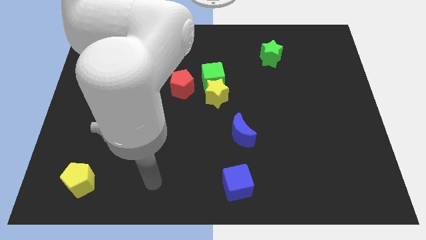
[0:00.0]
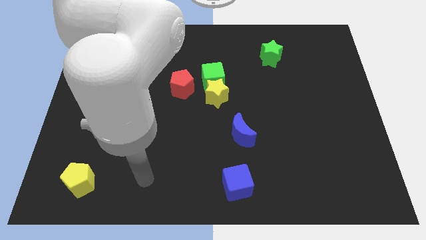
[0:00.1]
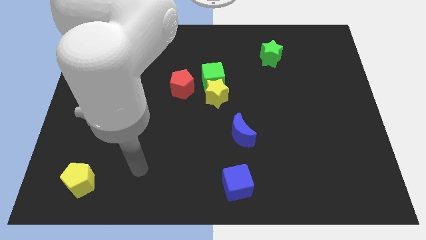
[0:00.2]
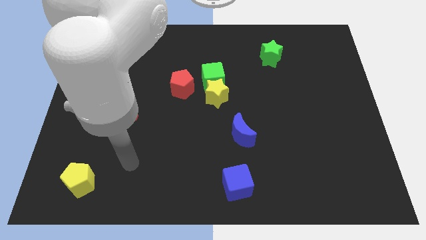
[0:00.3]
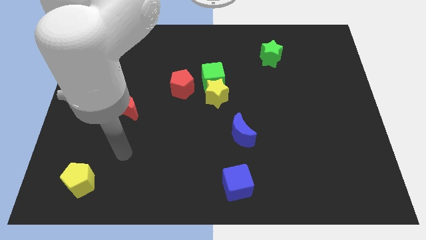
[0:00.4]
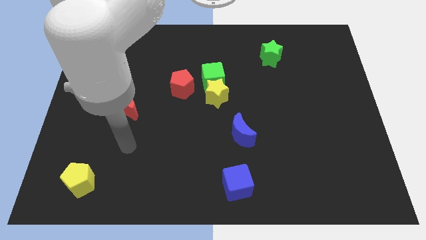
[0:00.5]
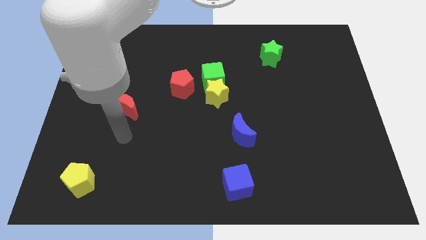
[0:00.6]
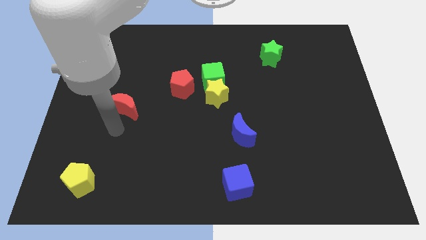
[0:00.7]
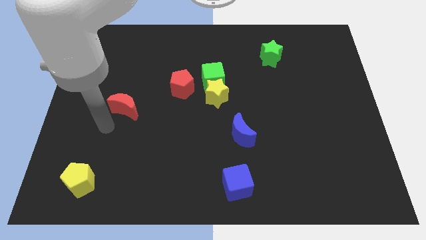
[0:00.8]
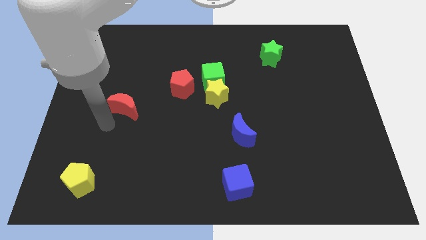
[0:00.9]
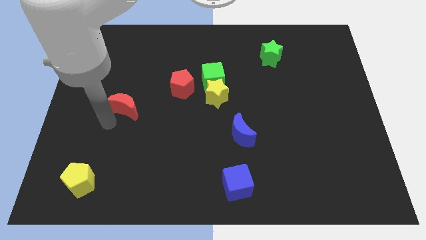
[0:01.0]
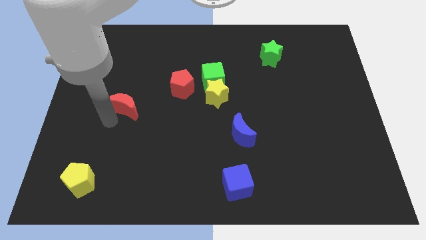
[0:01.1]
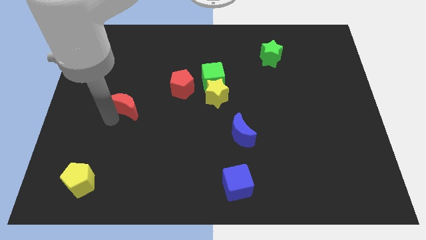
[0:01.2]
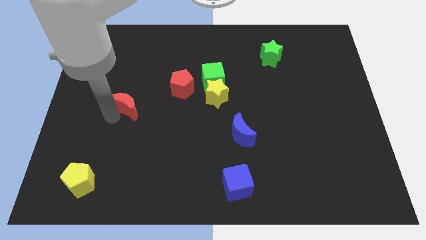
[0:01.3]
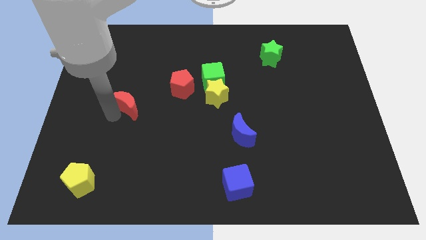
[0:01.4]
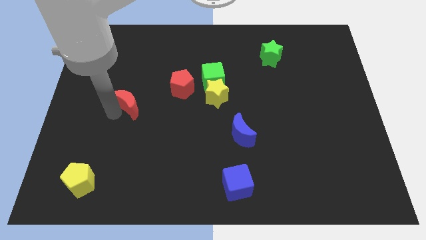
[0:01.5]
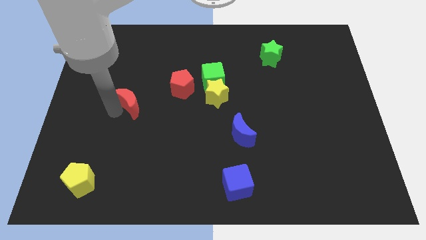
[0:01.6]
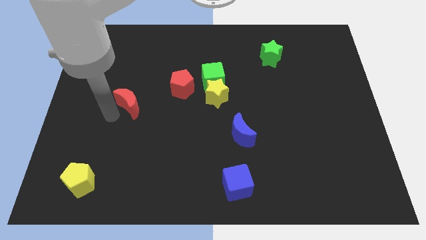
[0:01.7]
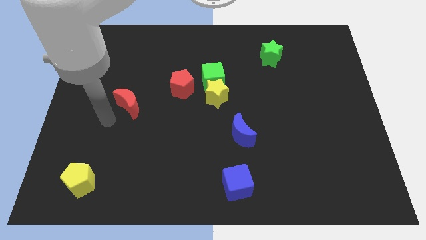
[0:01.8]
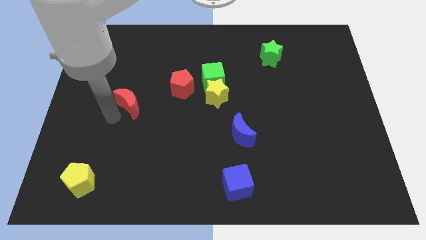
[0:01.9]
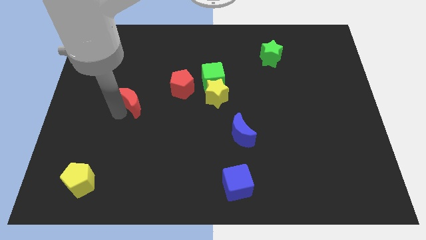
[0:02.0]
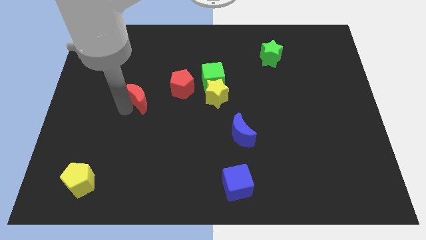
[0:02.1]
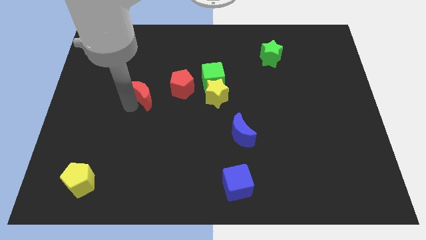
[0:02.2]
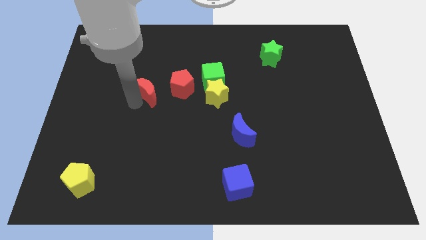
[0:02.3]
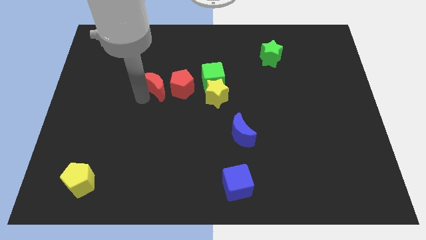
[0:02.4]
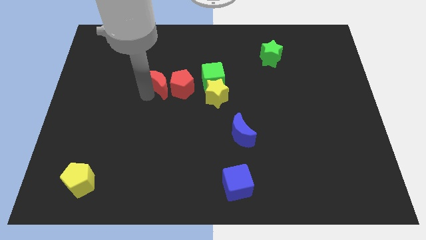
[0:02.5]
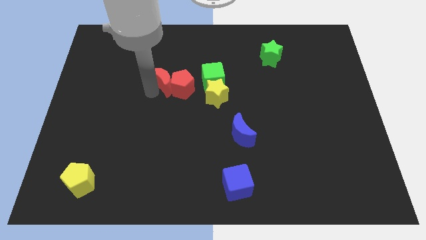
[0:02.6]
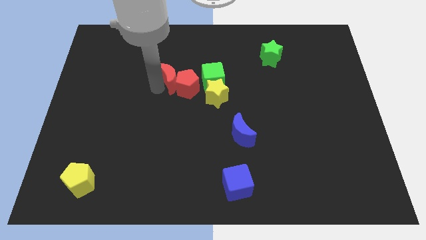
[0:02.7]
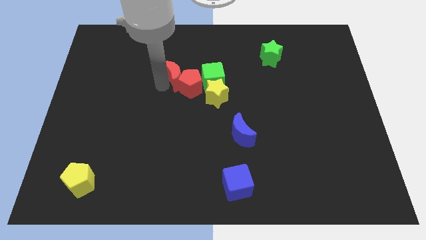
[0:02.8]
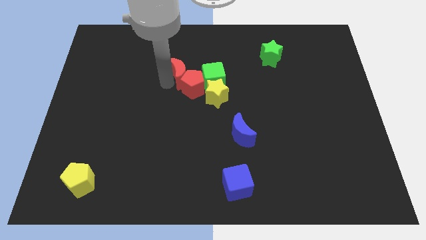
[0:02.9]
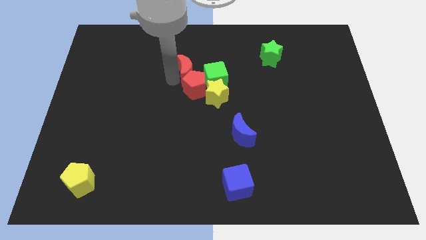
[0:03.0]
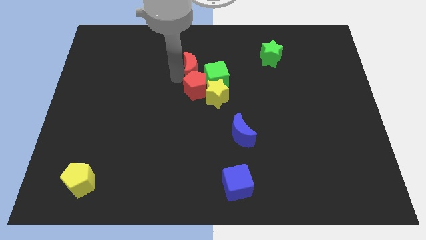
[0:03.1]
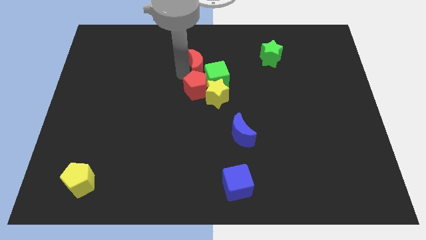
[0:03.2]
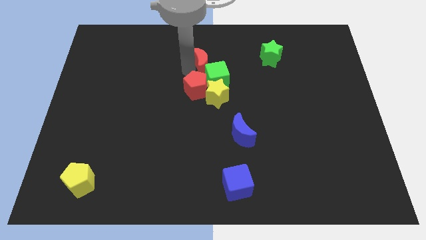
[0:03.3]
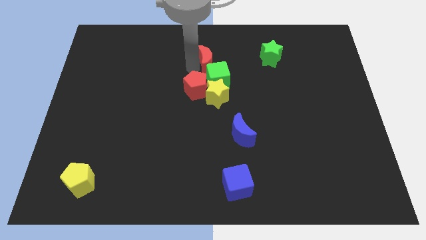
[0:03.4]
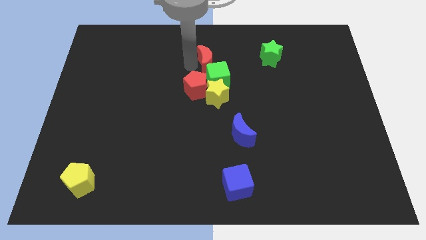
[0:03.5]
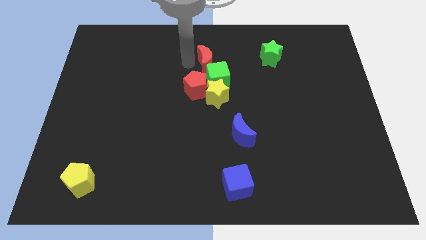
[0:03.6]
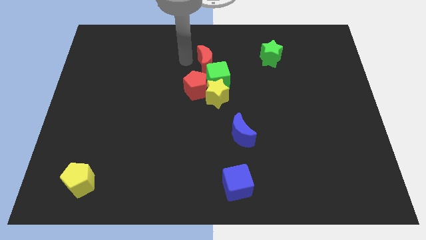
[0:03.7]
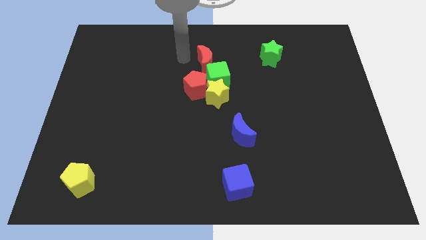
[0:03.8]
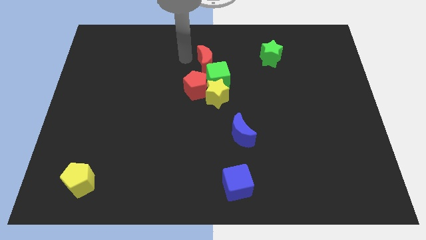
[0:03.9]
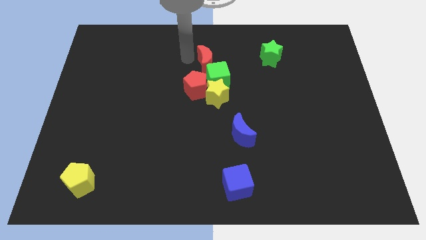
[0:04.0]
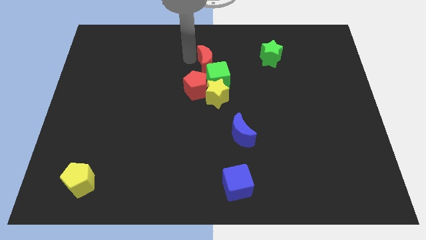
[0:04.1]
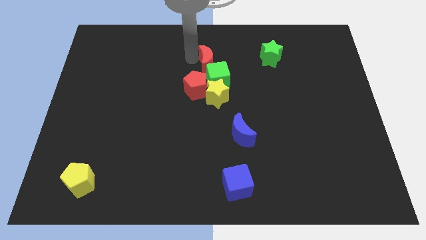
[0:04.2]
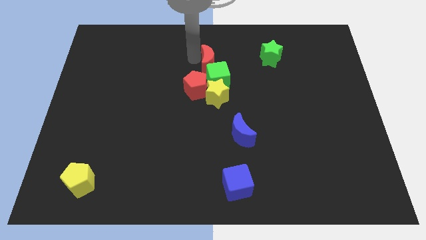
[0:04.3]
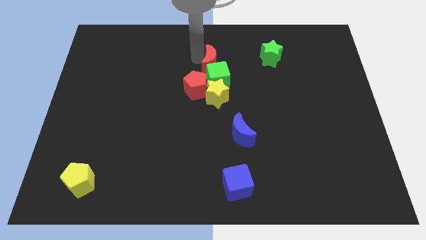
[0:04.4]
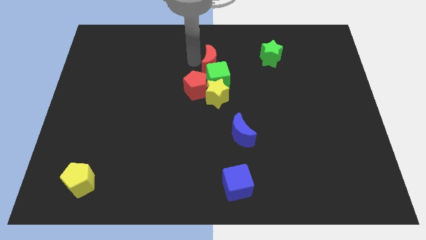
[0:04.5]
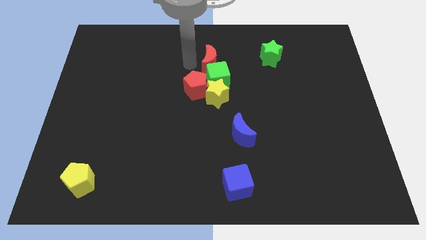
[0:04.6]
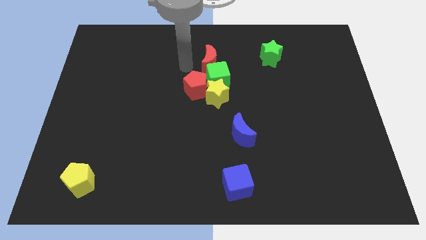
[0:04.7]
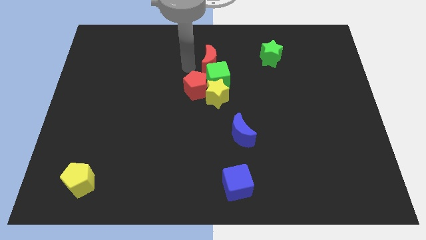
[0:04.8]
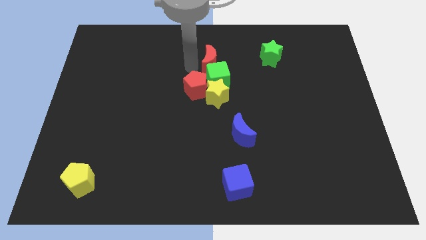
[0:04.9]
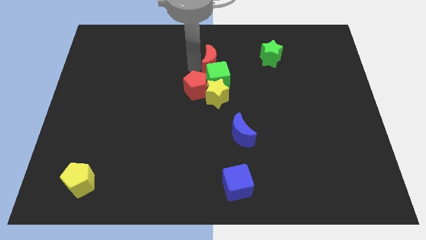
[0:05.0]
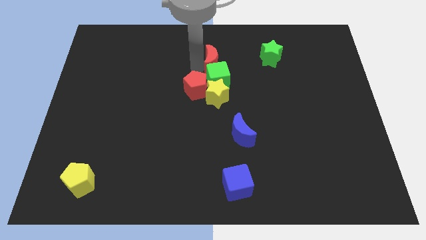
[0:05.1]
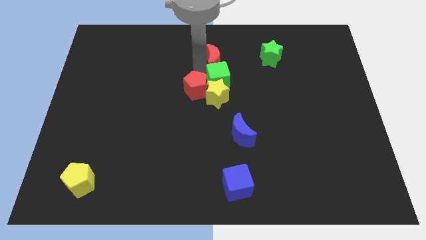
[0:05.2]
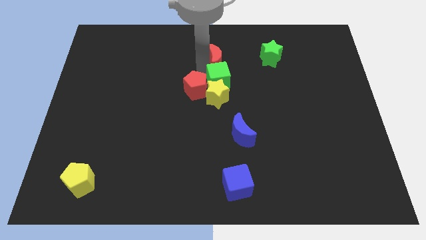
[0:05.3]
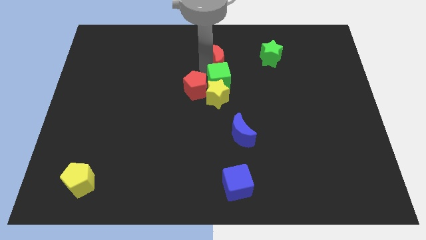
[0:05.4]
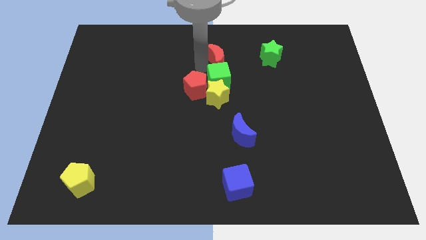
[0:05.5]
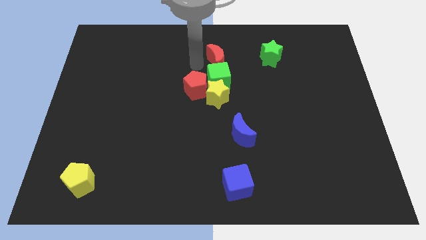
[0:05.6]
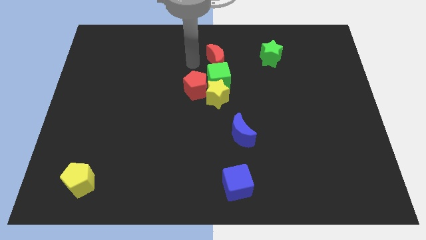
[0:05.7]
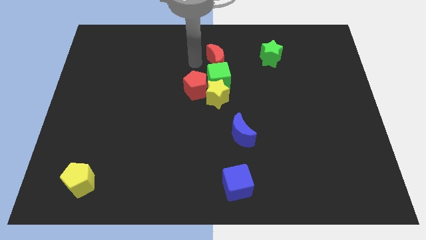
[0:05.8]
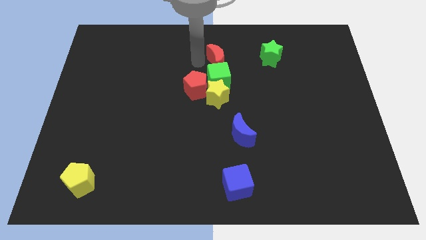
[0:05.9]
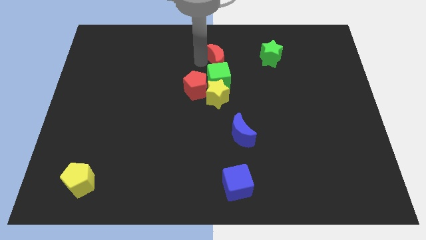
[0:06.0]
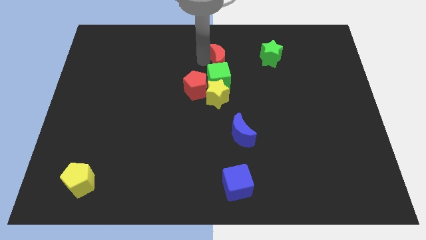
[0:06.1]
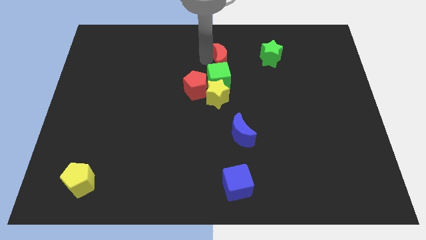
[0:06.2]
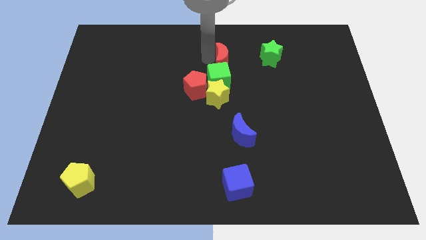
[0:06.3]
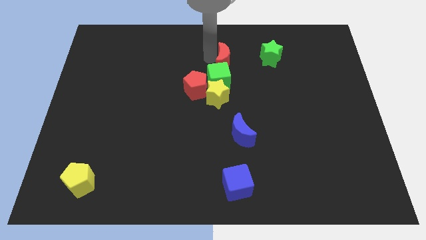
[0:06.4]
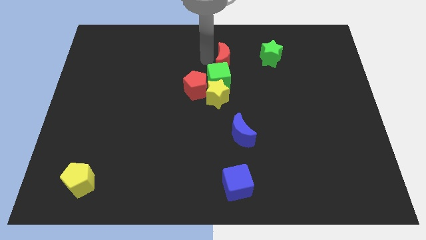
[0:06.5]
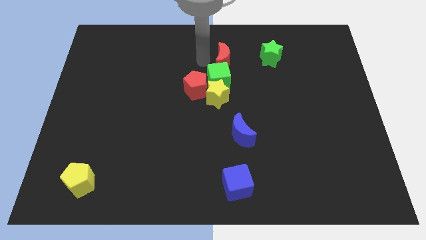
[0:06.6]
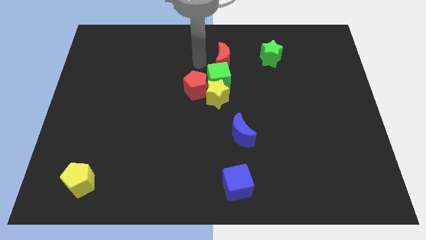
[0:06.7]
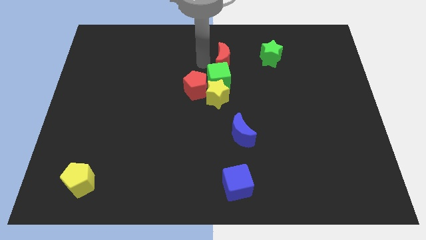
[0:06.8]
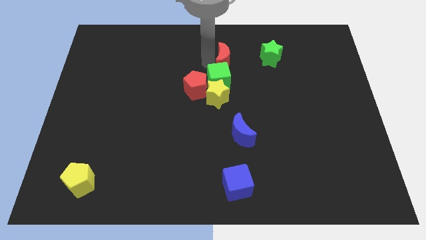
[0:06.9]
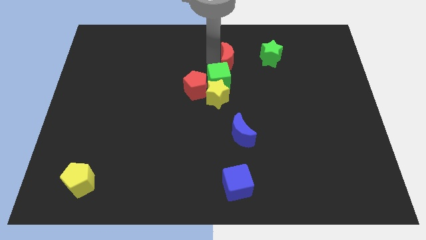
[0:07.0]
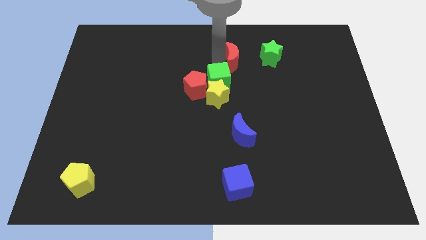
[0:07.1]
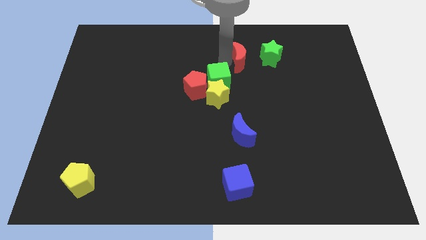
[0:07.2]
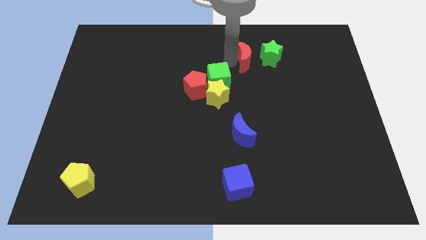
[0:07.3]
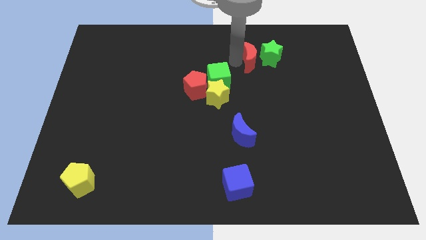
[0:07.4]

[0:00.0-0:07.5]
put the red moon towards the green star
